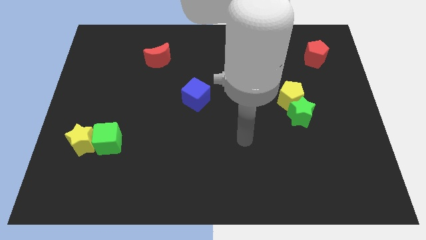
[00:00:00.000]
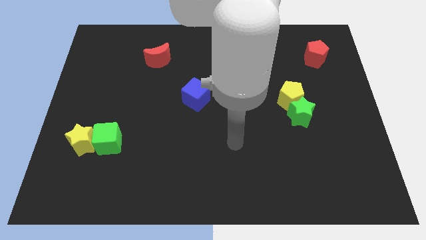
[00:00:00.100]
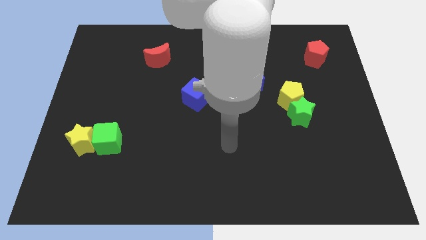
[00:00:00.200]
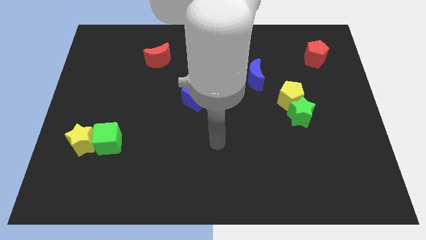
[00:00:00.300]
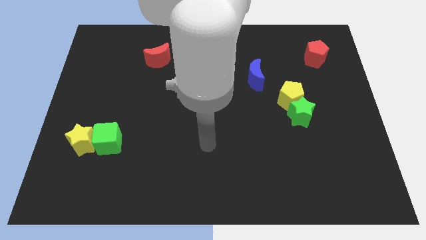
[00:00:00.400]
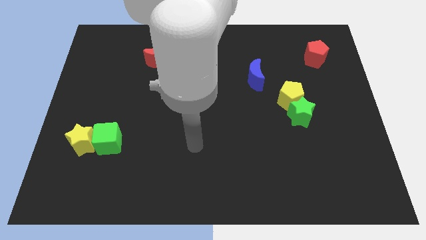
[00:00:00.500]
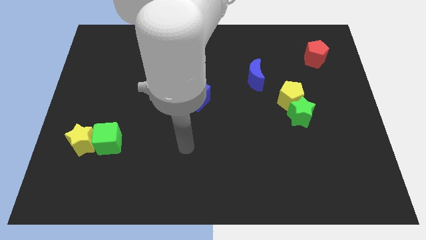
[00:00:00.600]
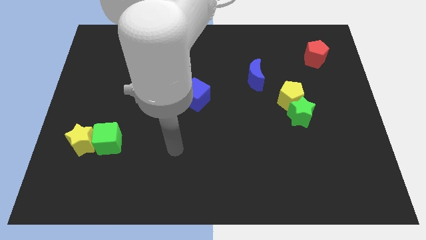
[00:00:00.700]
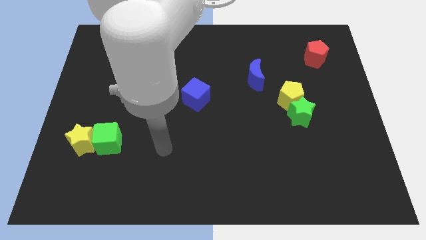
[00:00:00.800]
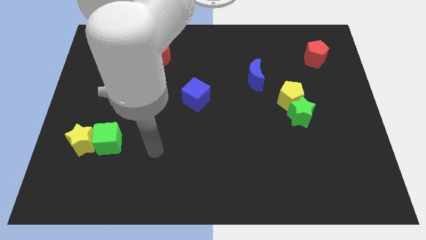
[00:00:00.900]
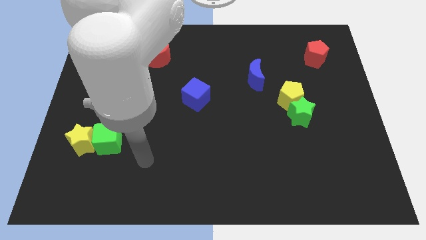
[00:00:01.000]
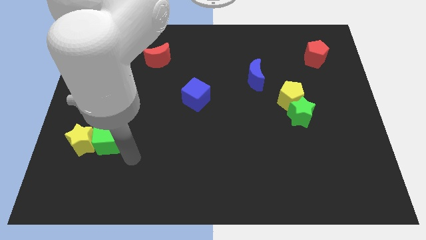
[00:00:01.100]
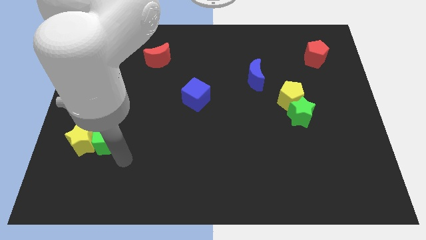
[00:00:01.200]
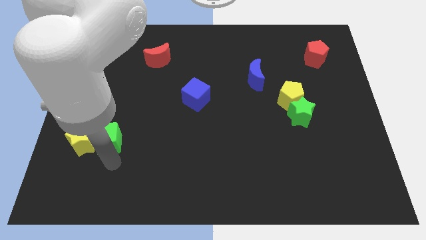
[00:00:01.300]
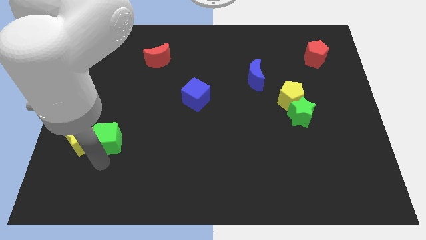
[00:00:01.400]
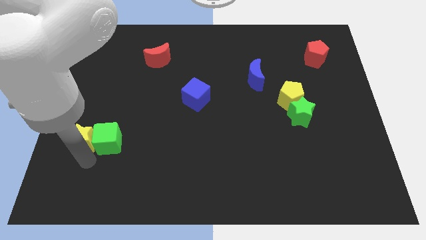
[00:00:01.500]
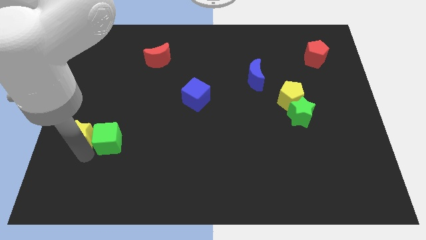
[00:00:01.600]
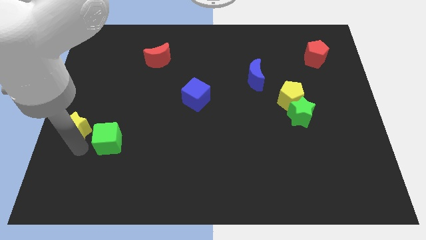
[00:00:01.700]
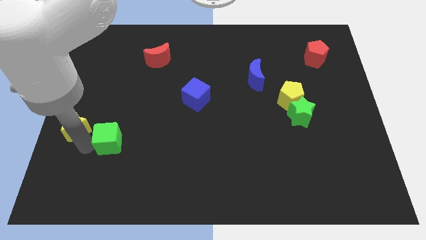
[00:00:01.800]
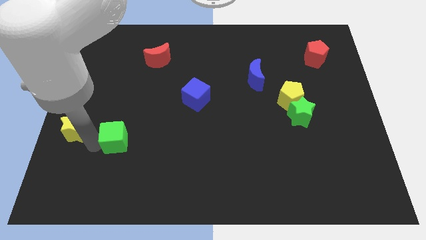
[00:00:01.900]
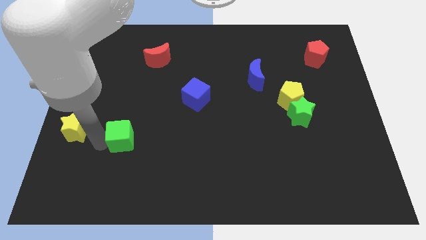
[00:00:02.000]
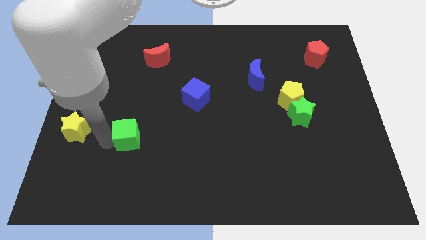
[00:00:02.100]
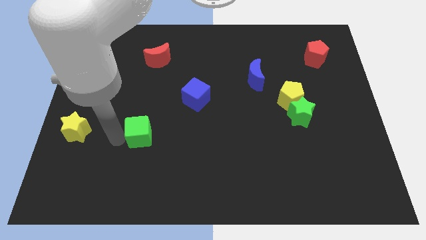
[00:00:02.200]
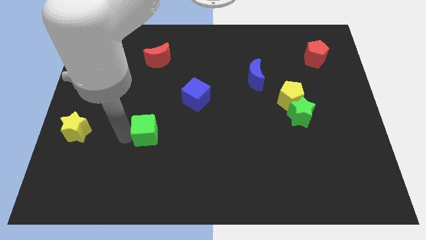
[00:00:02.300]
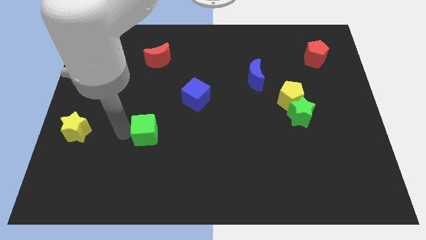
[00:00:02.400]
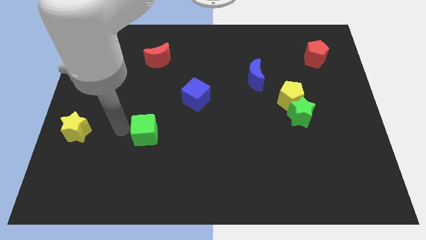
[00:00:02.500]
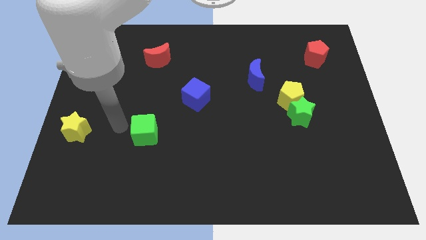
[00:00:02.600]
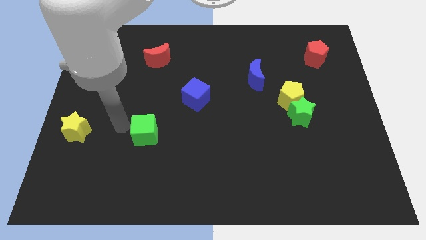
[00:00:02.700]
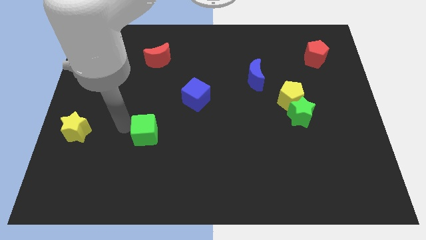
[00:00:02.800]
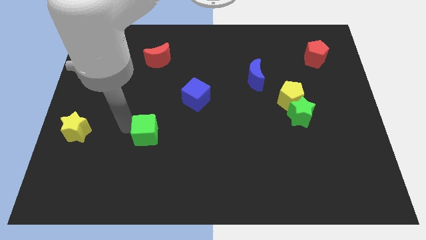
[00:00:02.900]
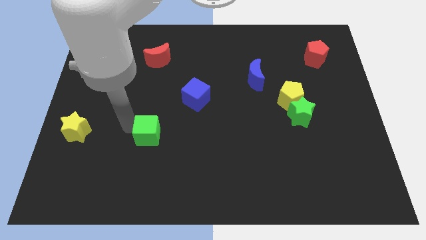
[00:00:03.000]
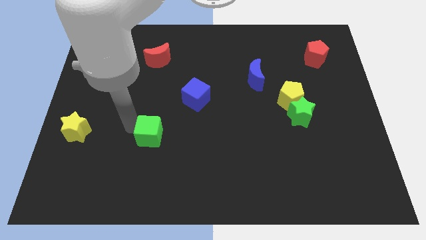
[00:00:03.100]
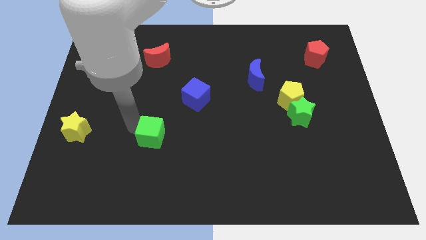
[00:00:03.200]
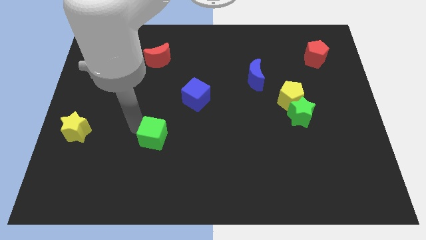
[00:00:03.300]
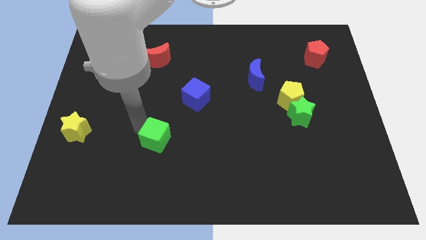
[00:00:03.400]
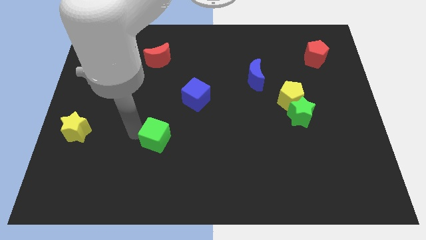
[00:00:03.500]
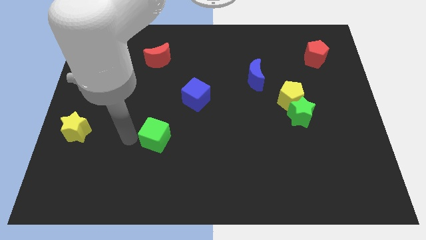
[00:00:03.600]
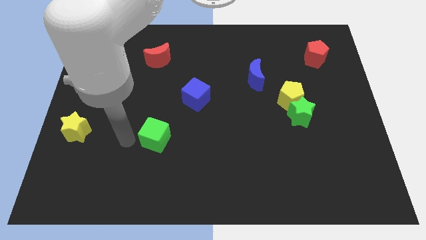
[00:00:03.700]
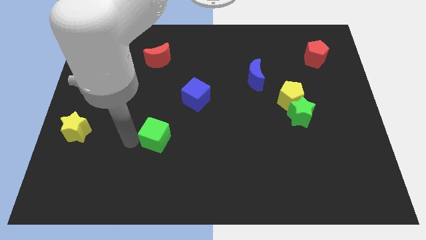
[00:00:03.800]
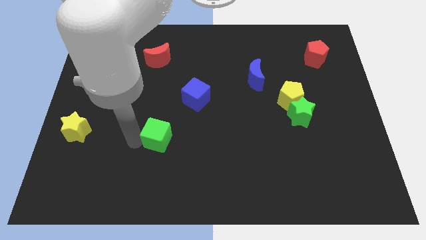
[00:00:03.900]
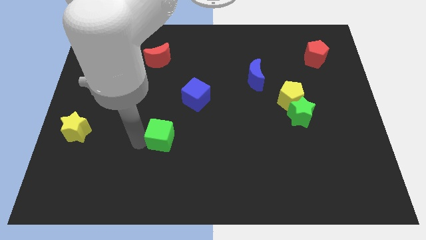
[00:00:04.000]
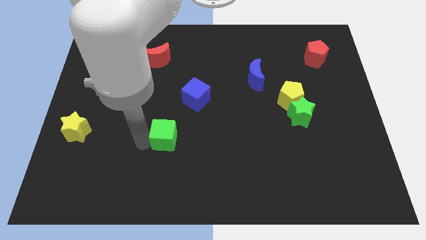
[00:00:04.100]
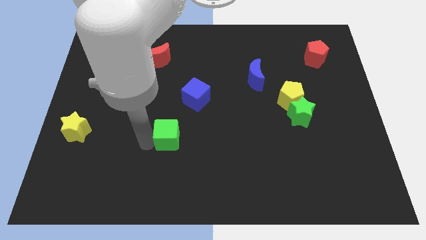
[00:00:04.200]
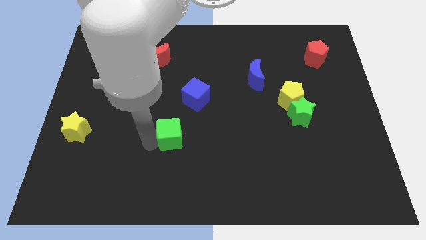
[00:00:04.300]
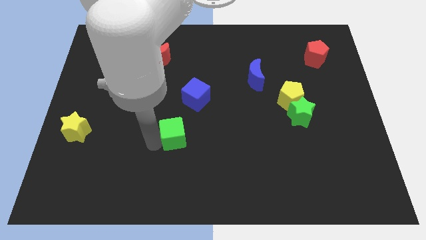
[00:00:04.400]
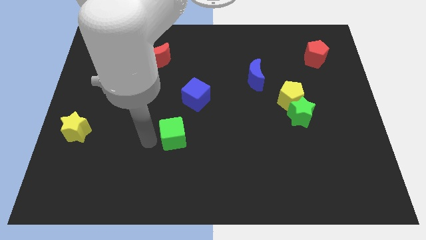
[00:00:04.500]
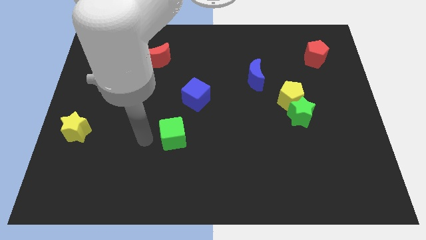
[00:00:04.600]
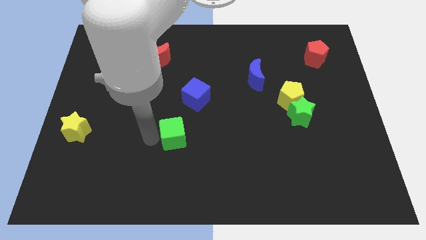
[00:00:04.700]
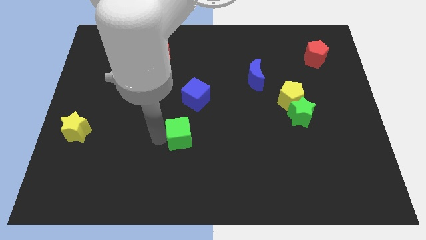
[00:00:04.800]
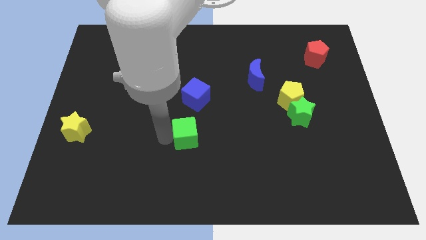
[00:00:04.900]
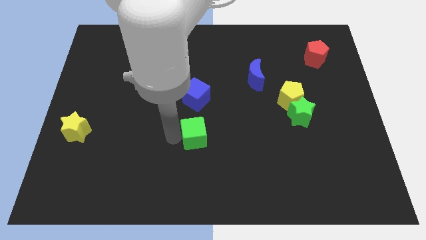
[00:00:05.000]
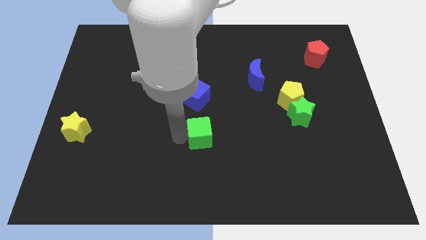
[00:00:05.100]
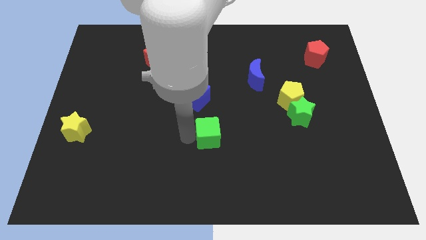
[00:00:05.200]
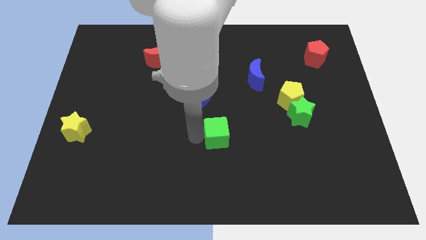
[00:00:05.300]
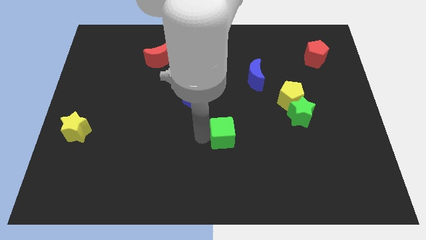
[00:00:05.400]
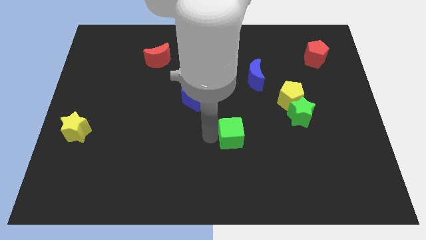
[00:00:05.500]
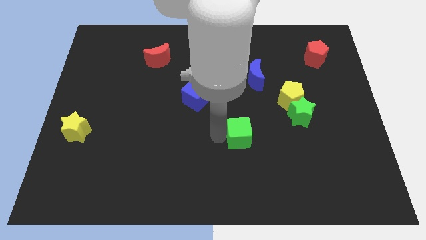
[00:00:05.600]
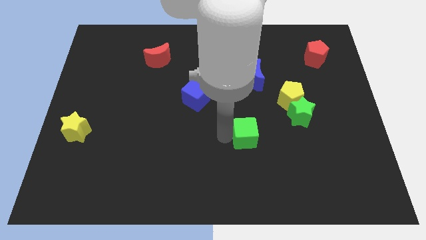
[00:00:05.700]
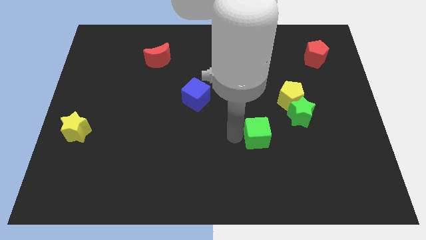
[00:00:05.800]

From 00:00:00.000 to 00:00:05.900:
put the green cube diagonally down and to the left of the green star

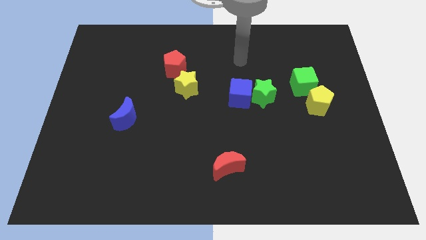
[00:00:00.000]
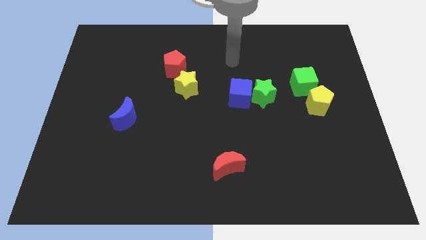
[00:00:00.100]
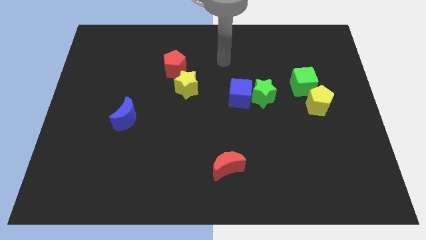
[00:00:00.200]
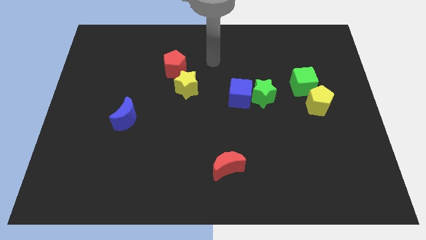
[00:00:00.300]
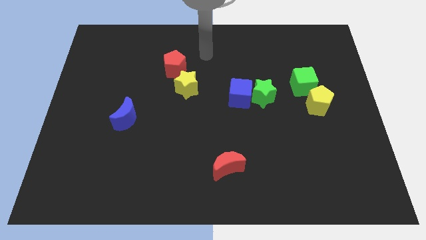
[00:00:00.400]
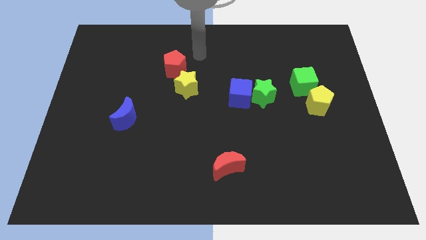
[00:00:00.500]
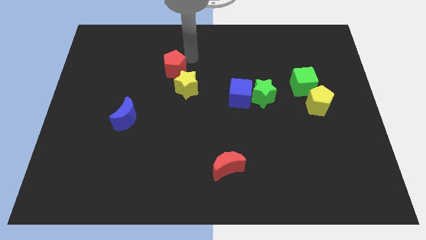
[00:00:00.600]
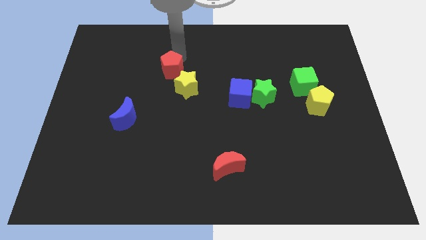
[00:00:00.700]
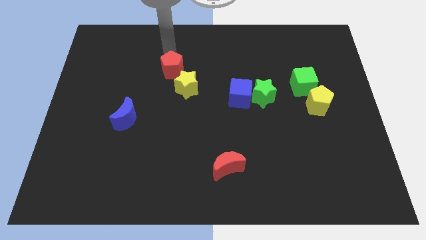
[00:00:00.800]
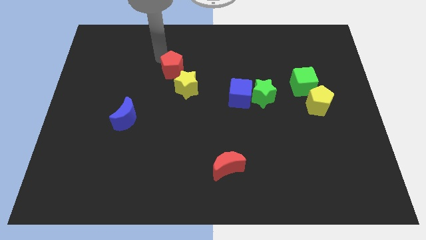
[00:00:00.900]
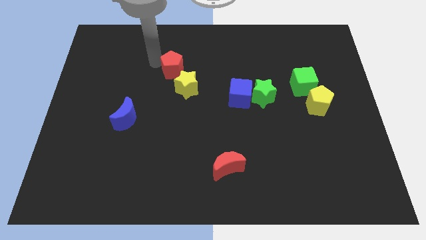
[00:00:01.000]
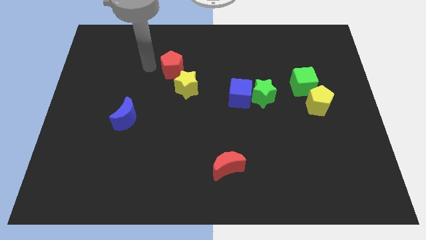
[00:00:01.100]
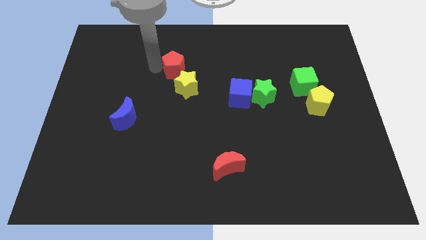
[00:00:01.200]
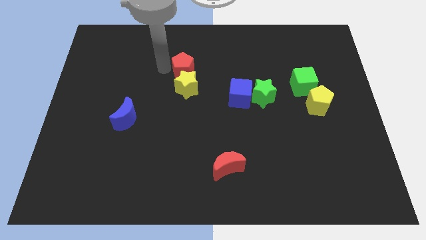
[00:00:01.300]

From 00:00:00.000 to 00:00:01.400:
slide the red pentagon diagonally up and to the right of the yellow star
